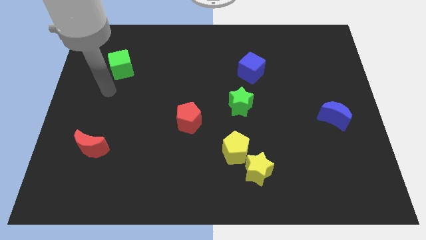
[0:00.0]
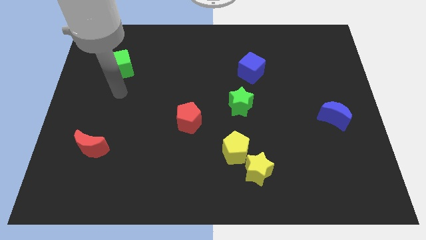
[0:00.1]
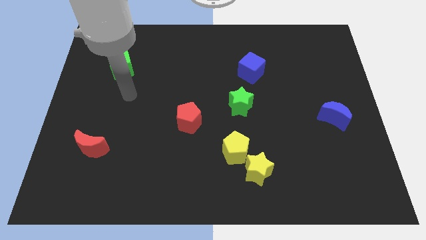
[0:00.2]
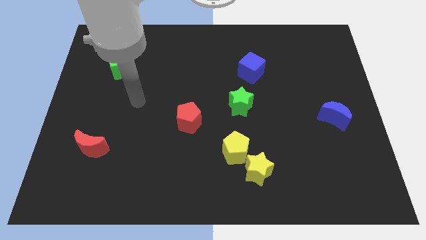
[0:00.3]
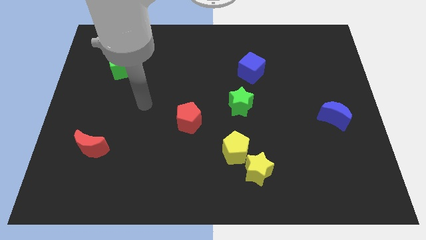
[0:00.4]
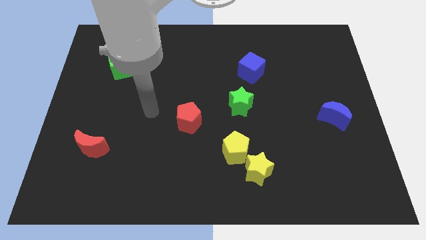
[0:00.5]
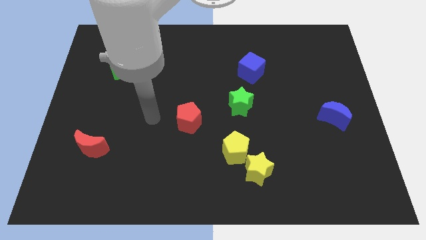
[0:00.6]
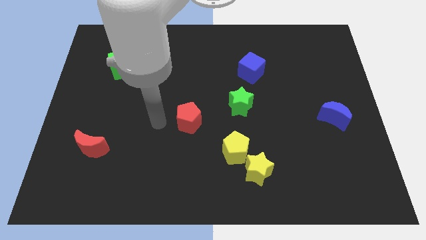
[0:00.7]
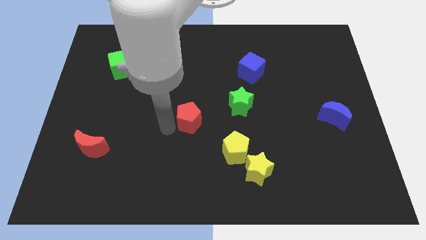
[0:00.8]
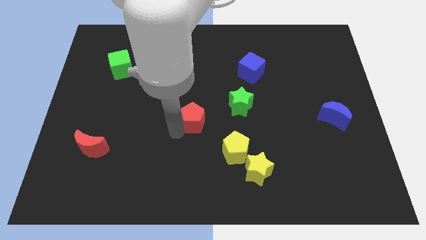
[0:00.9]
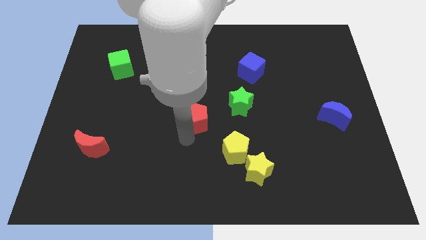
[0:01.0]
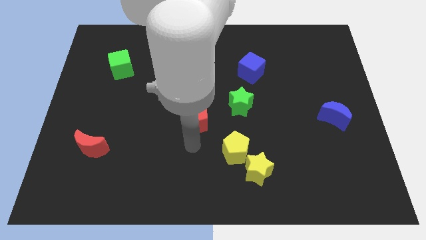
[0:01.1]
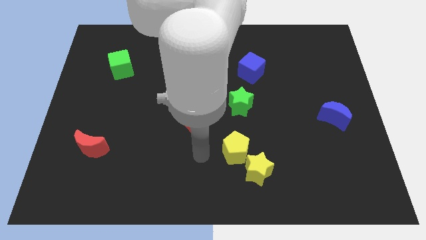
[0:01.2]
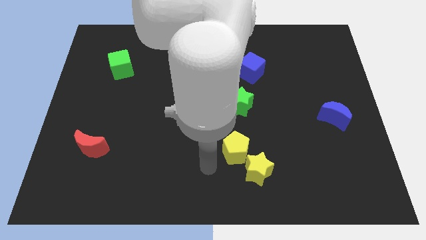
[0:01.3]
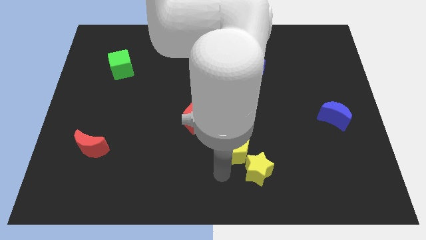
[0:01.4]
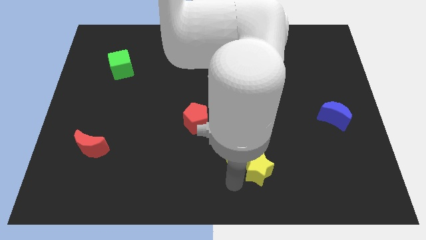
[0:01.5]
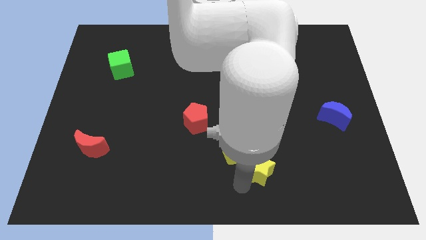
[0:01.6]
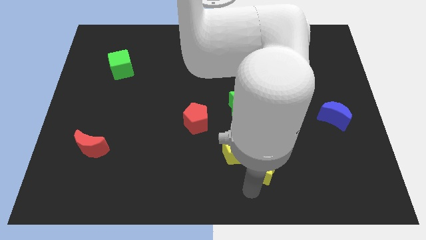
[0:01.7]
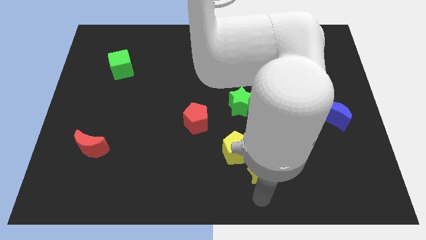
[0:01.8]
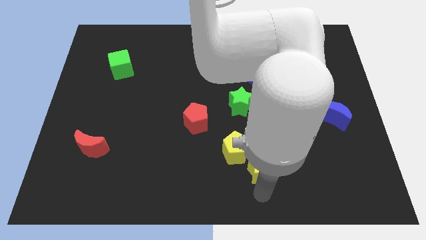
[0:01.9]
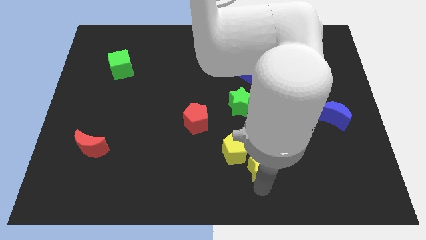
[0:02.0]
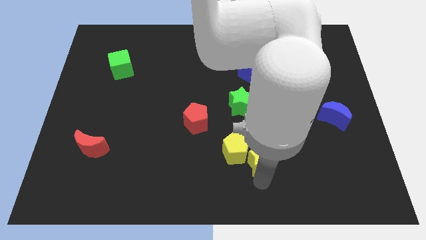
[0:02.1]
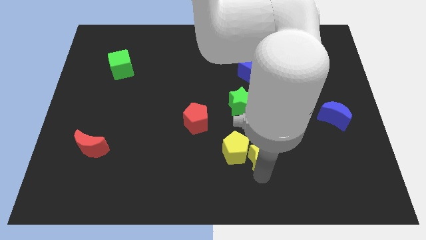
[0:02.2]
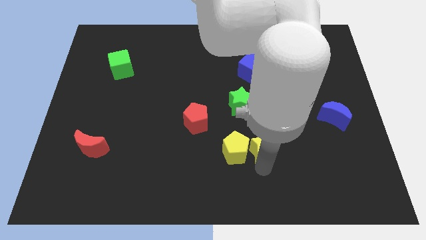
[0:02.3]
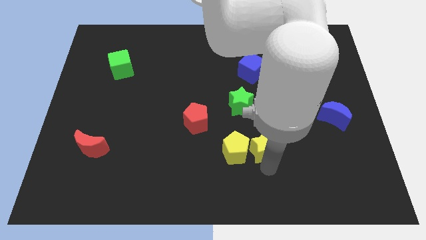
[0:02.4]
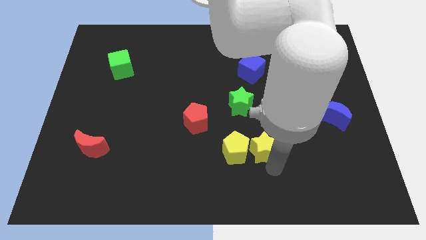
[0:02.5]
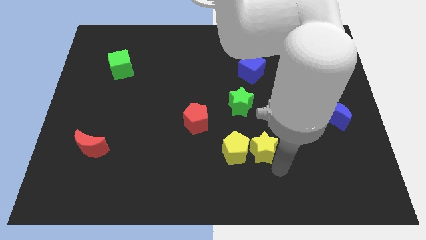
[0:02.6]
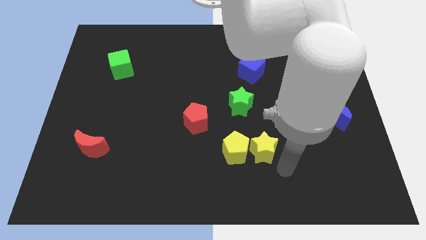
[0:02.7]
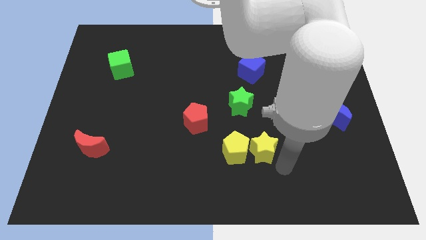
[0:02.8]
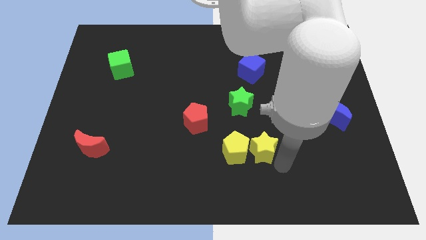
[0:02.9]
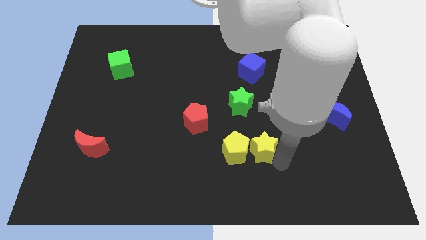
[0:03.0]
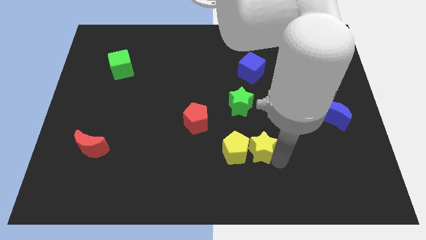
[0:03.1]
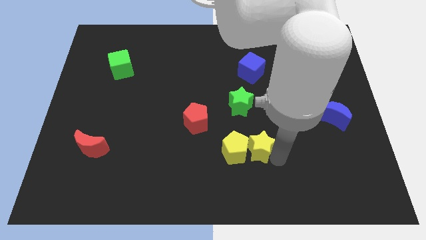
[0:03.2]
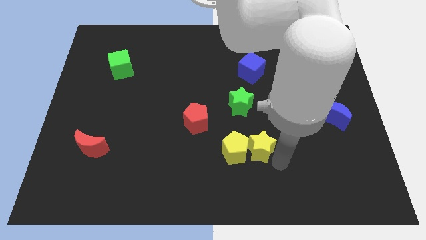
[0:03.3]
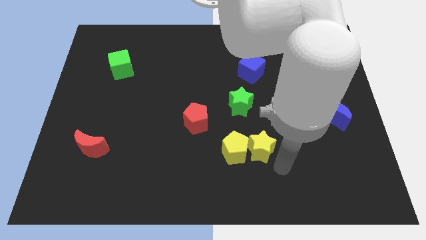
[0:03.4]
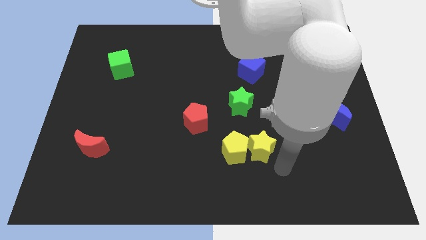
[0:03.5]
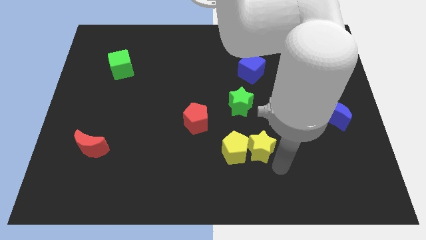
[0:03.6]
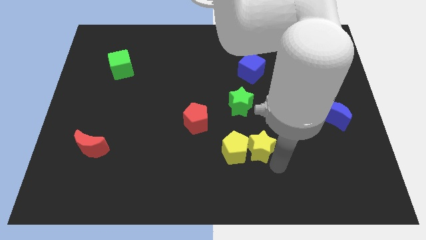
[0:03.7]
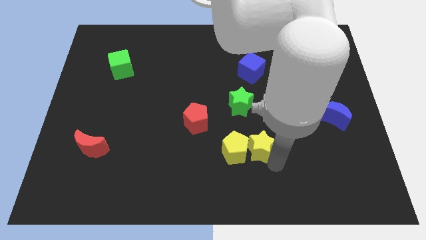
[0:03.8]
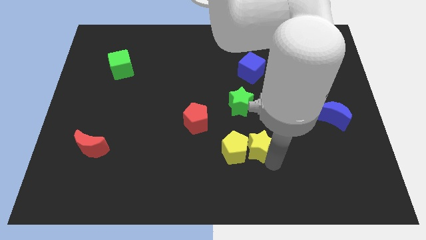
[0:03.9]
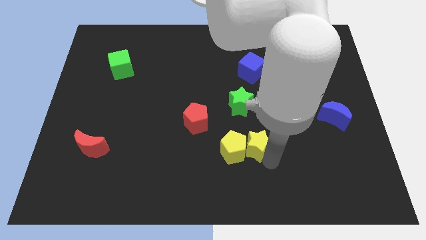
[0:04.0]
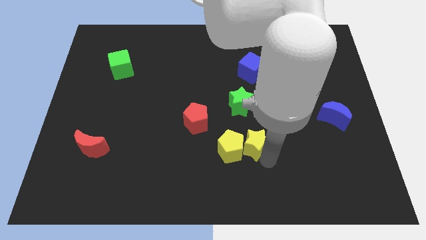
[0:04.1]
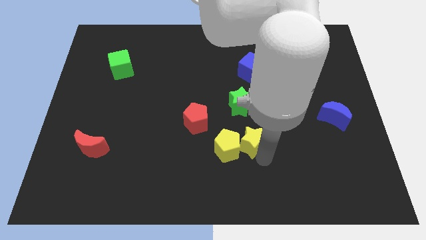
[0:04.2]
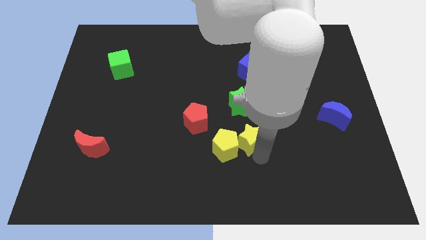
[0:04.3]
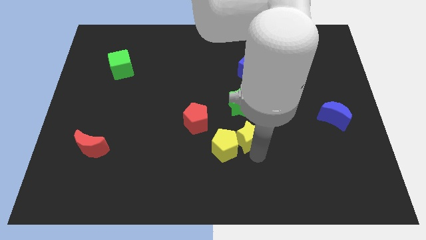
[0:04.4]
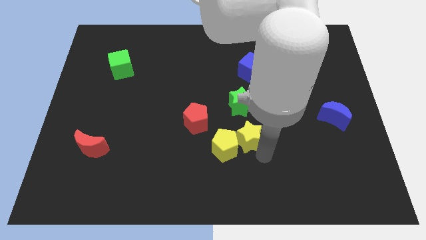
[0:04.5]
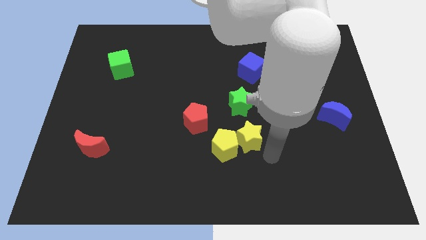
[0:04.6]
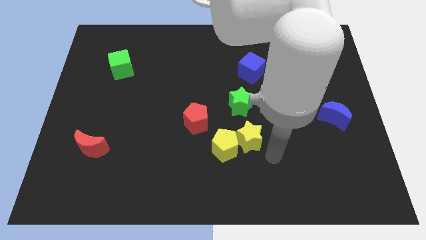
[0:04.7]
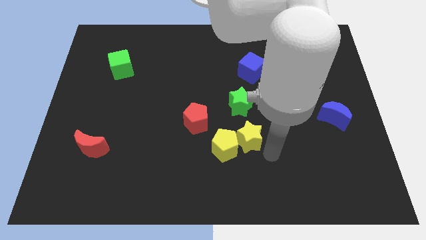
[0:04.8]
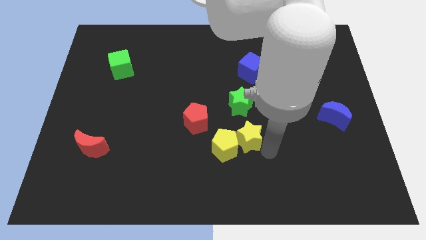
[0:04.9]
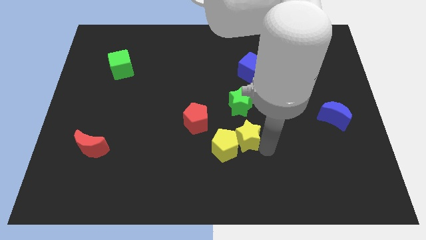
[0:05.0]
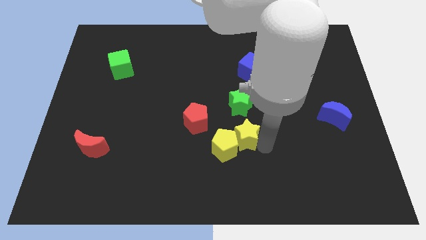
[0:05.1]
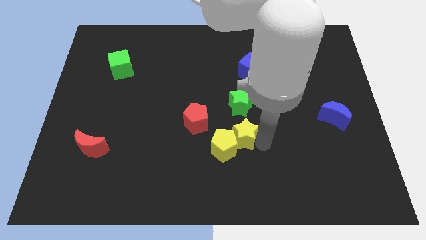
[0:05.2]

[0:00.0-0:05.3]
slide the yellow star to the center

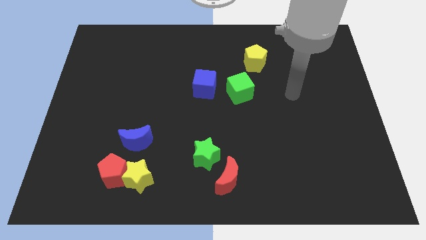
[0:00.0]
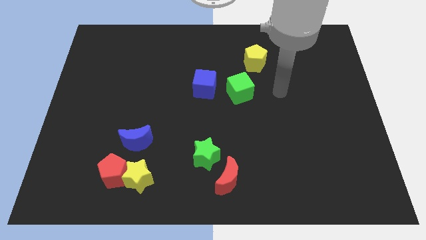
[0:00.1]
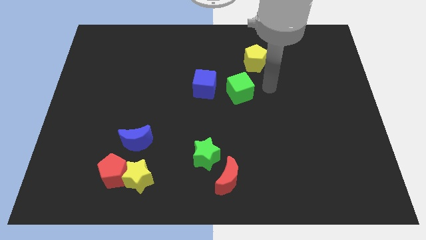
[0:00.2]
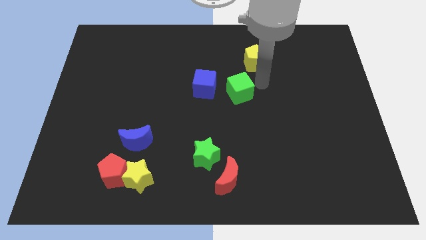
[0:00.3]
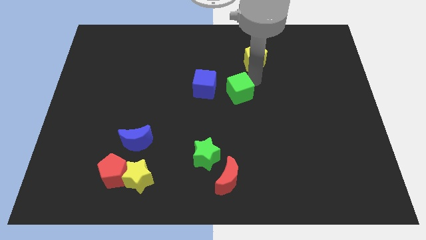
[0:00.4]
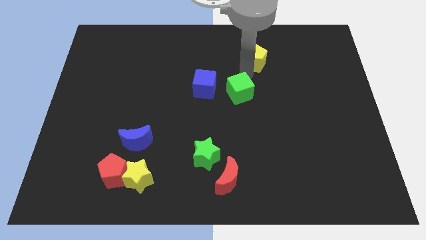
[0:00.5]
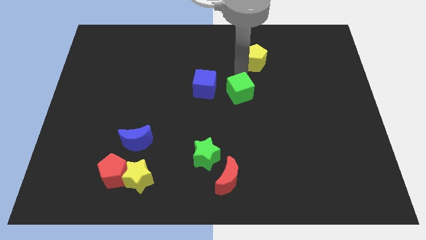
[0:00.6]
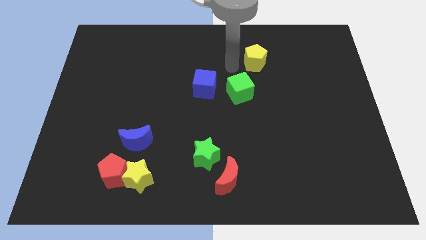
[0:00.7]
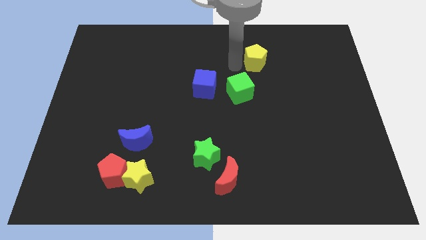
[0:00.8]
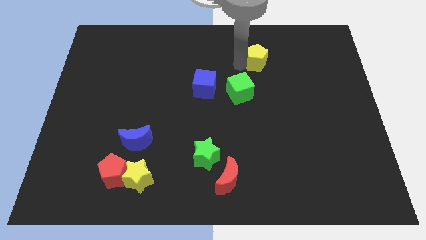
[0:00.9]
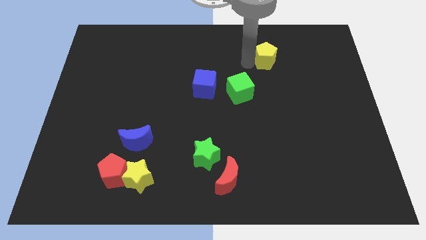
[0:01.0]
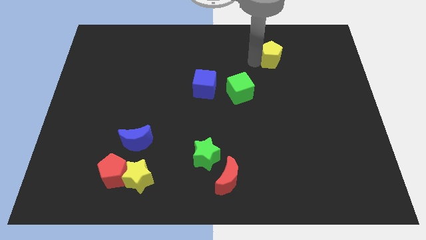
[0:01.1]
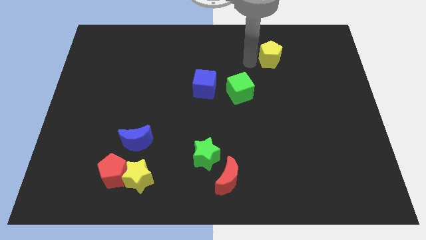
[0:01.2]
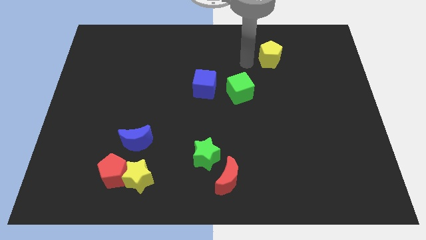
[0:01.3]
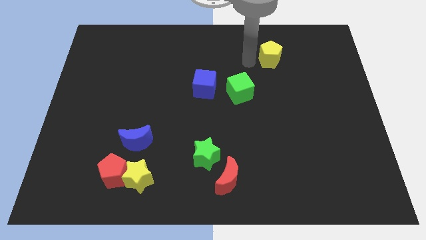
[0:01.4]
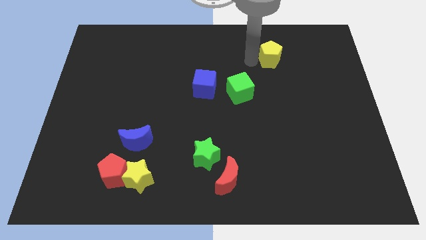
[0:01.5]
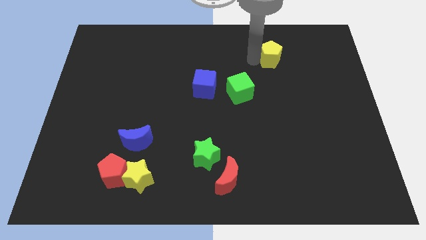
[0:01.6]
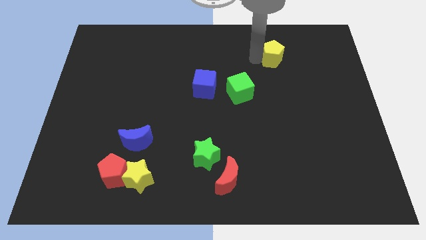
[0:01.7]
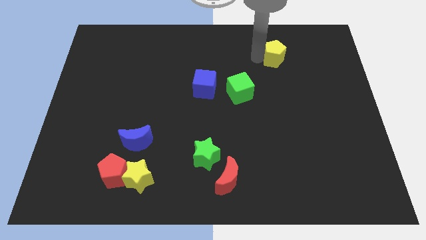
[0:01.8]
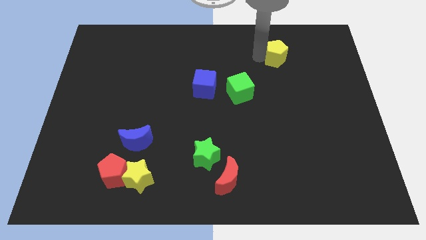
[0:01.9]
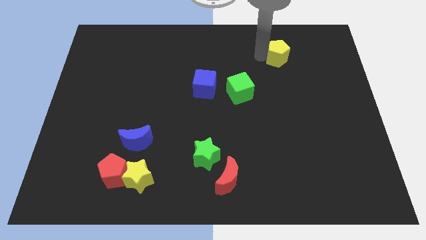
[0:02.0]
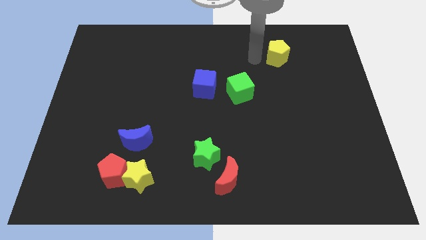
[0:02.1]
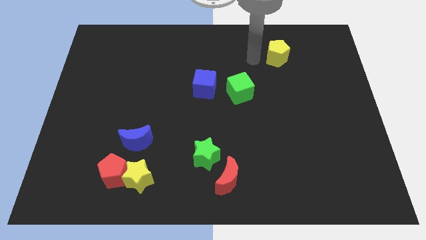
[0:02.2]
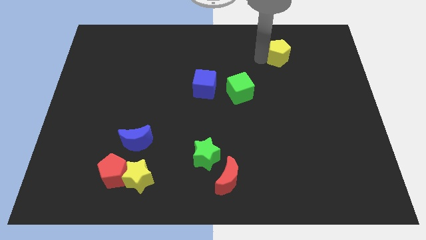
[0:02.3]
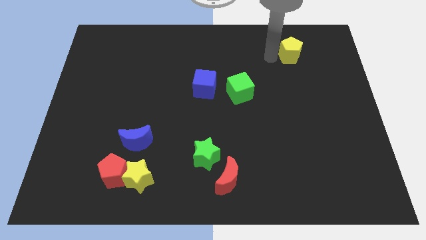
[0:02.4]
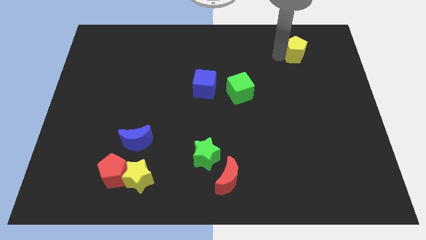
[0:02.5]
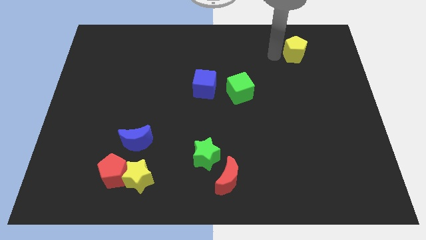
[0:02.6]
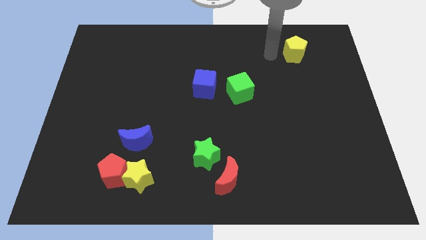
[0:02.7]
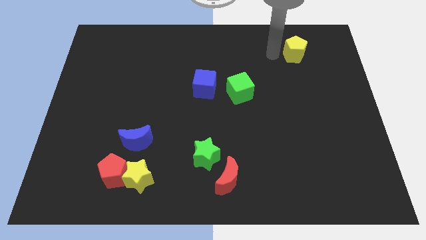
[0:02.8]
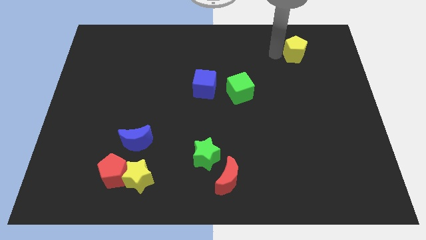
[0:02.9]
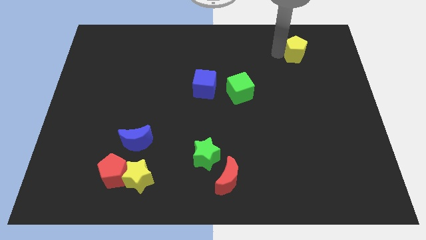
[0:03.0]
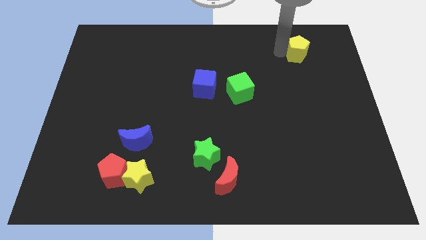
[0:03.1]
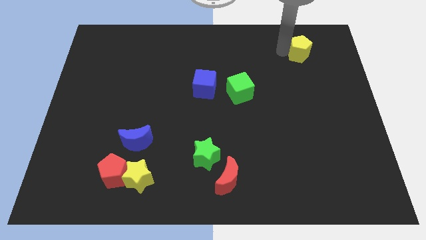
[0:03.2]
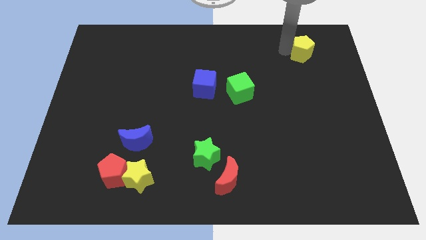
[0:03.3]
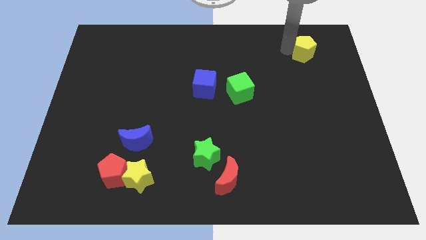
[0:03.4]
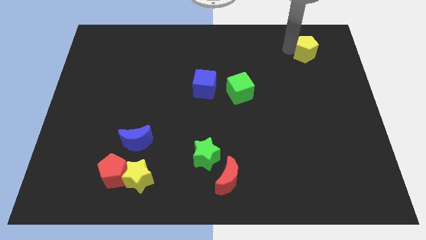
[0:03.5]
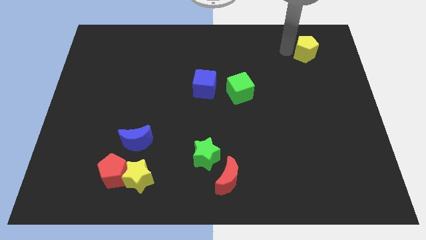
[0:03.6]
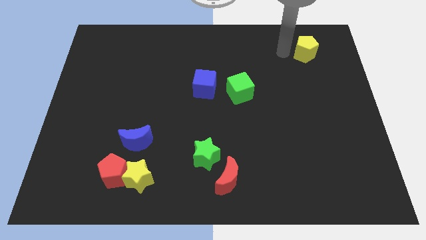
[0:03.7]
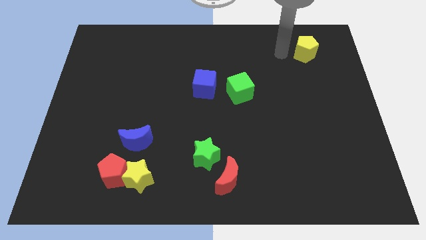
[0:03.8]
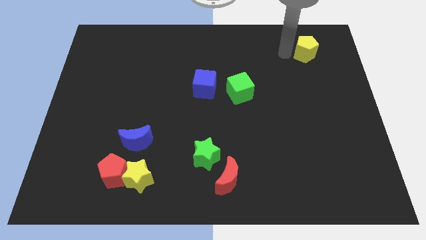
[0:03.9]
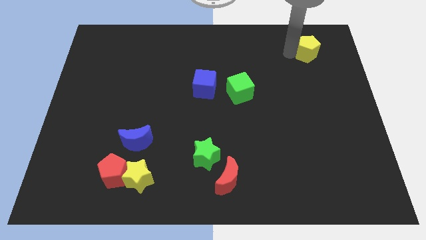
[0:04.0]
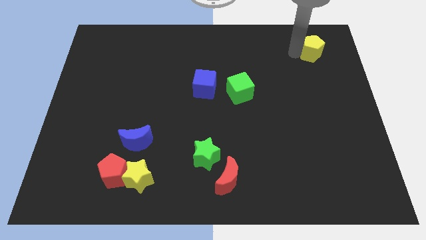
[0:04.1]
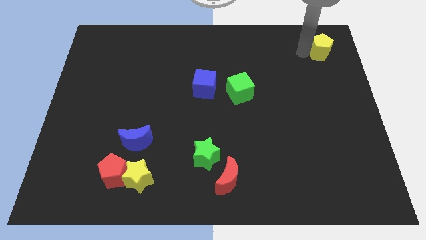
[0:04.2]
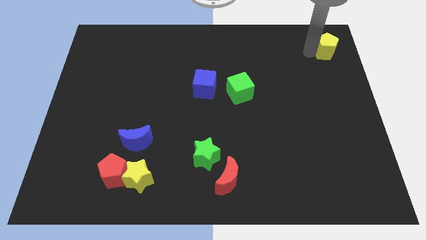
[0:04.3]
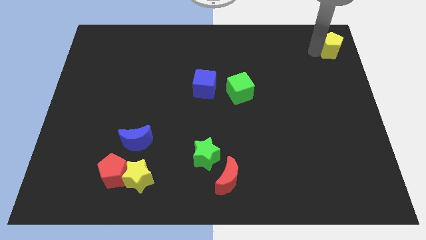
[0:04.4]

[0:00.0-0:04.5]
push the yellow pentagon to the top right
